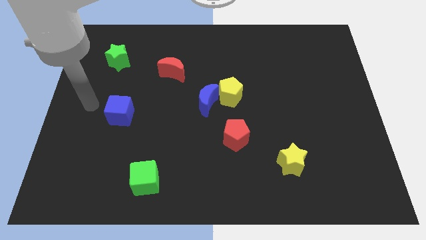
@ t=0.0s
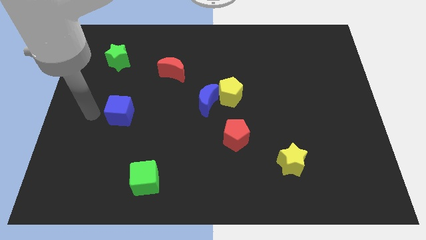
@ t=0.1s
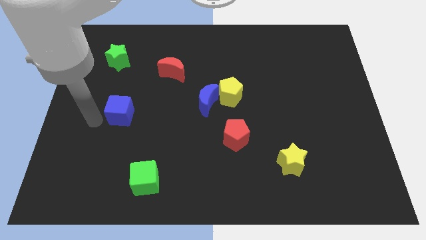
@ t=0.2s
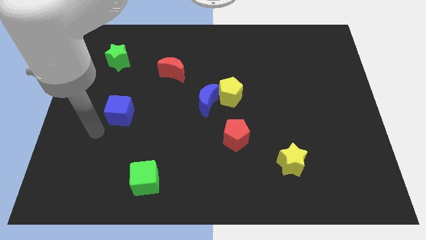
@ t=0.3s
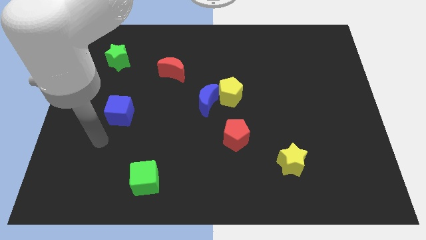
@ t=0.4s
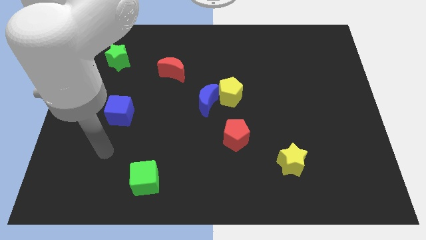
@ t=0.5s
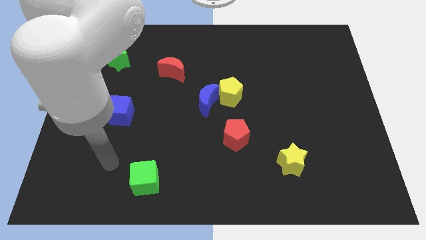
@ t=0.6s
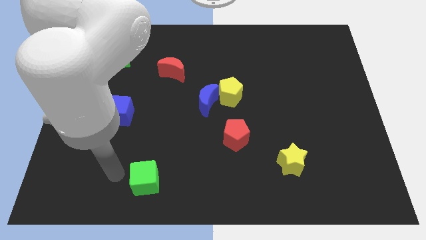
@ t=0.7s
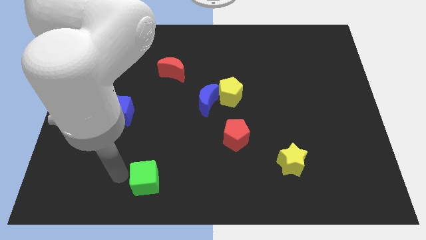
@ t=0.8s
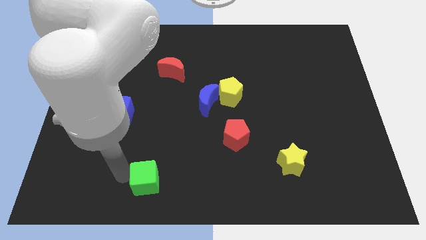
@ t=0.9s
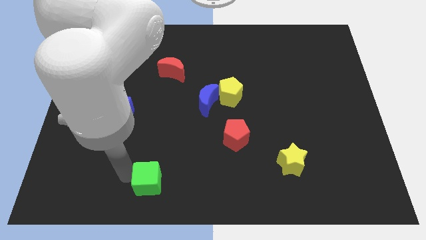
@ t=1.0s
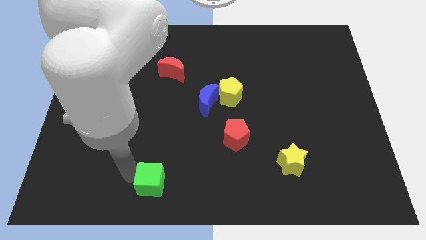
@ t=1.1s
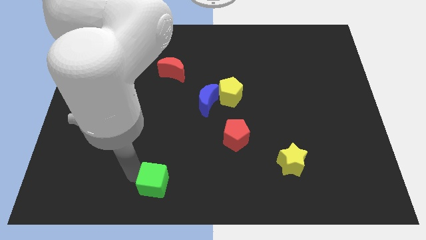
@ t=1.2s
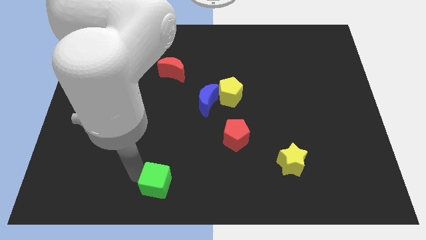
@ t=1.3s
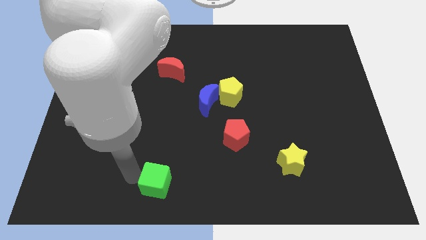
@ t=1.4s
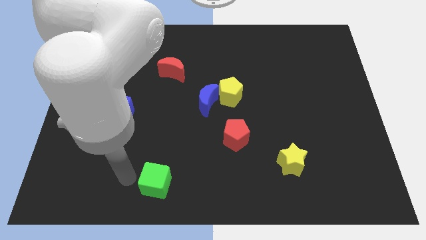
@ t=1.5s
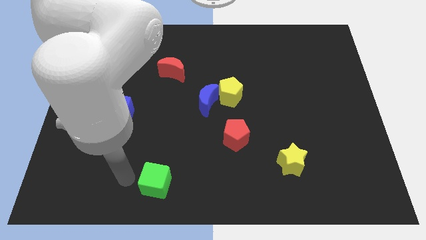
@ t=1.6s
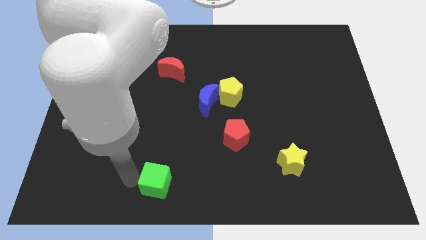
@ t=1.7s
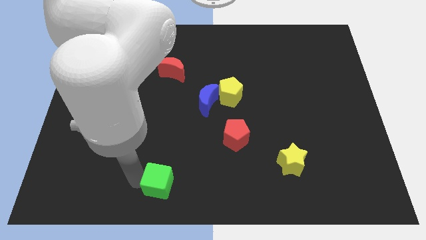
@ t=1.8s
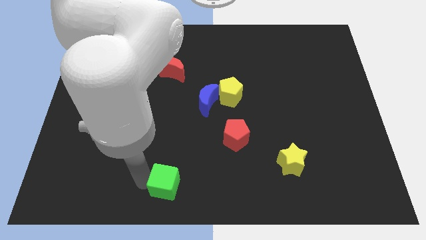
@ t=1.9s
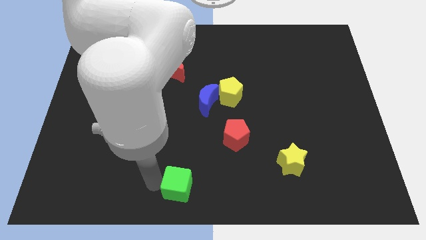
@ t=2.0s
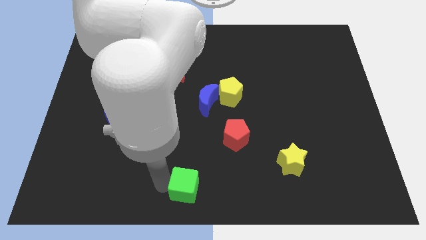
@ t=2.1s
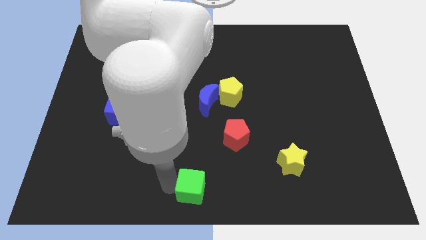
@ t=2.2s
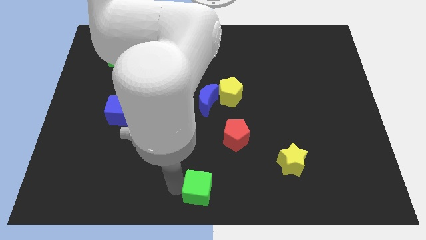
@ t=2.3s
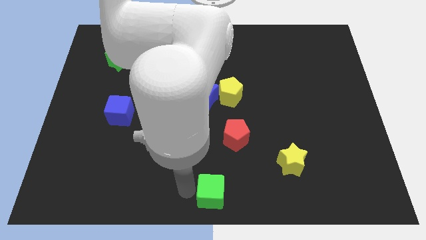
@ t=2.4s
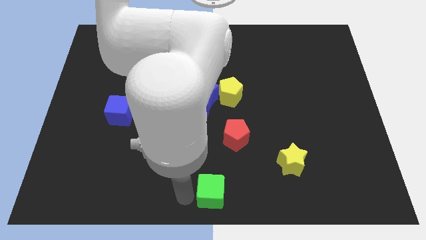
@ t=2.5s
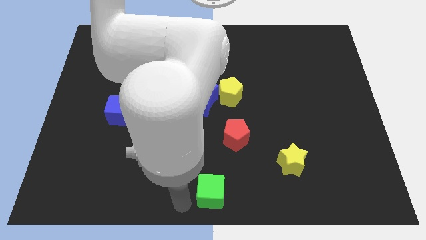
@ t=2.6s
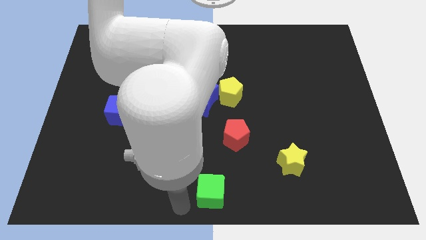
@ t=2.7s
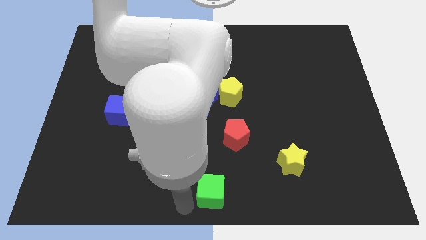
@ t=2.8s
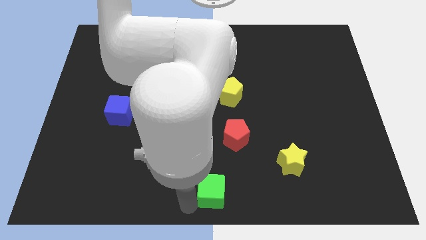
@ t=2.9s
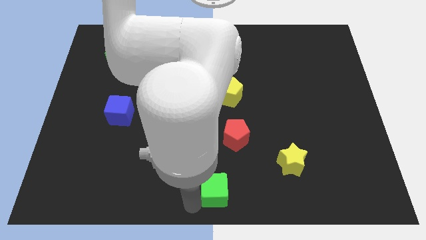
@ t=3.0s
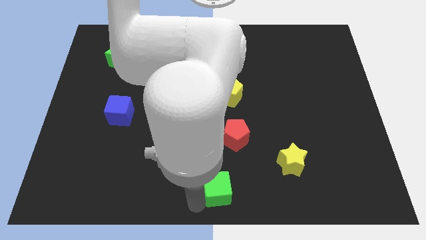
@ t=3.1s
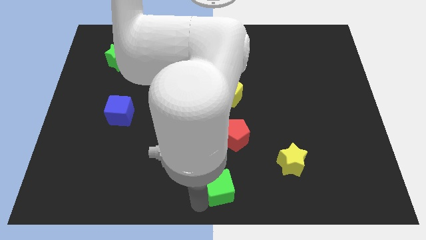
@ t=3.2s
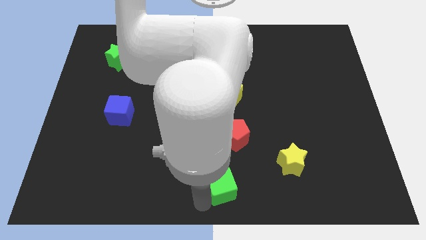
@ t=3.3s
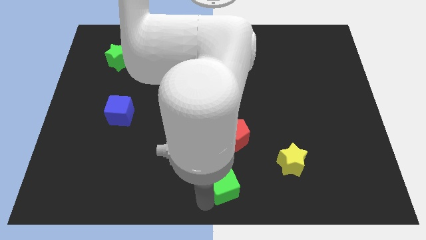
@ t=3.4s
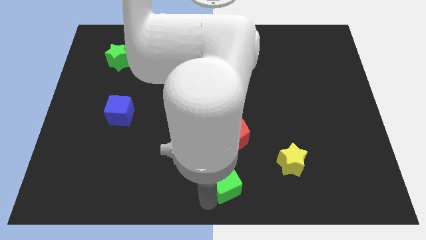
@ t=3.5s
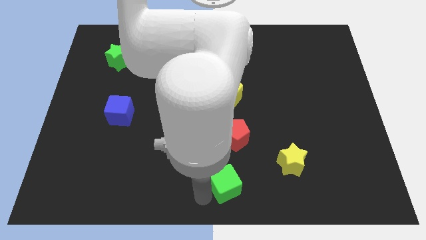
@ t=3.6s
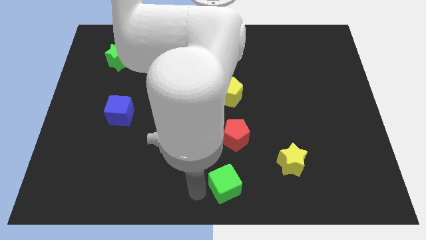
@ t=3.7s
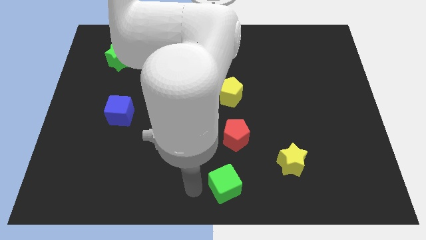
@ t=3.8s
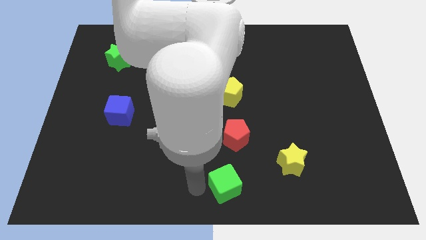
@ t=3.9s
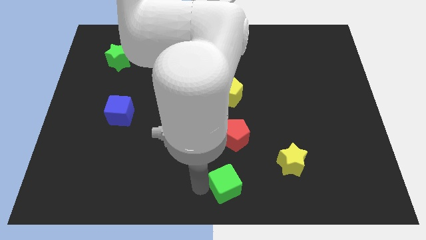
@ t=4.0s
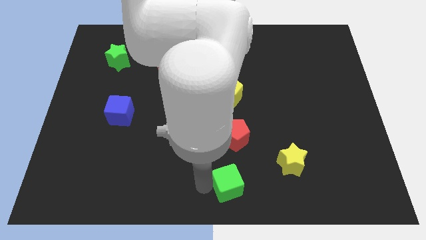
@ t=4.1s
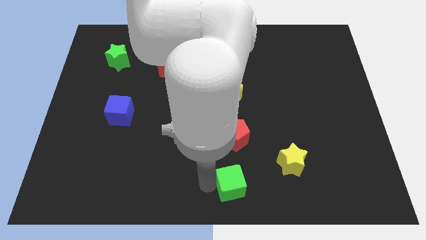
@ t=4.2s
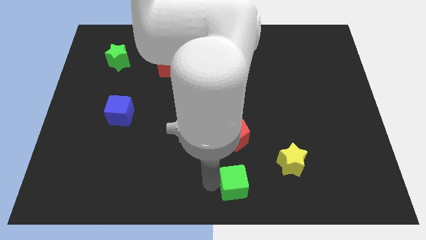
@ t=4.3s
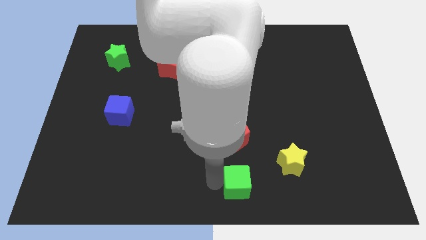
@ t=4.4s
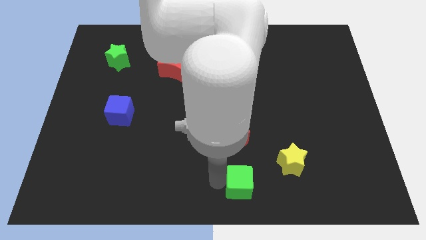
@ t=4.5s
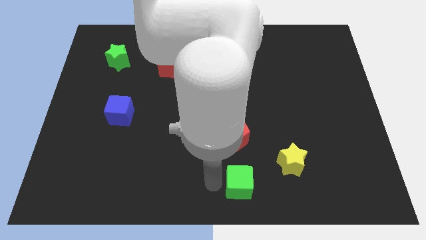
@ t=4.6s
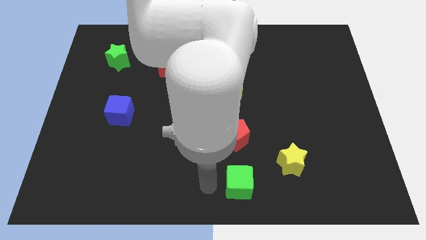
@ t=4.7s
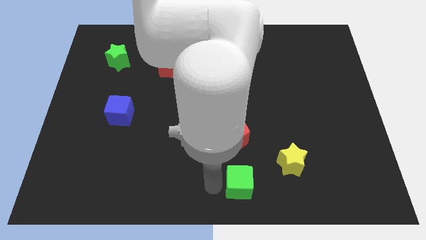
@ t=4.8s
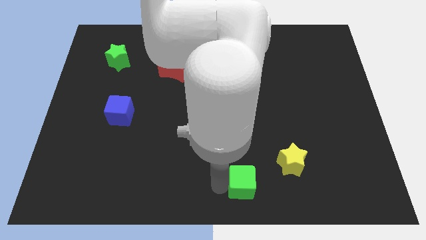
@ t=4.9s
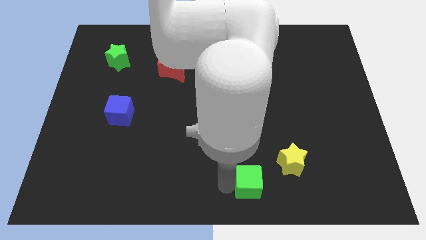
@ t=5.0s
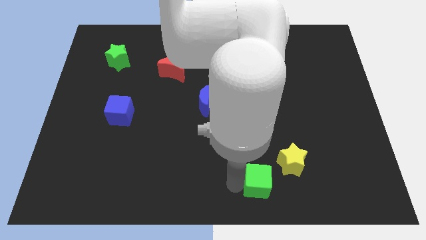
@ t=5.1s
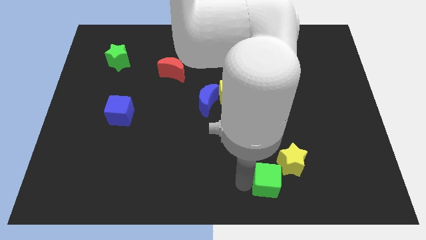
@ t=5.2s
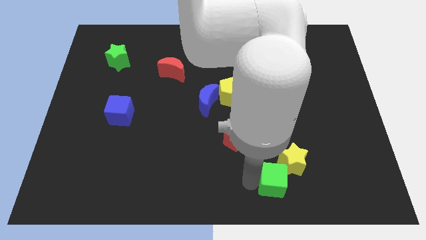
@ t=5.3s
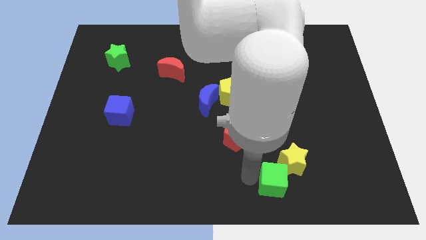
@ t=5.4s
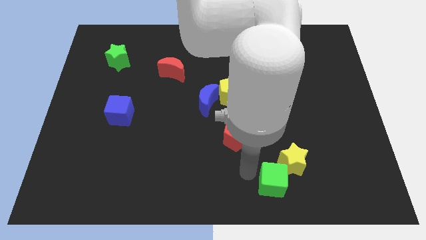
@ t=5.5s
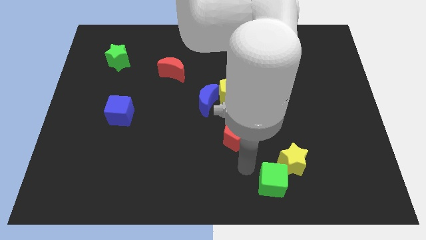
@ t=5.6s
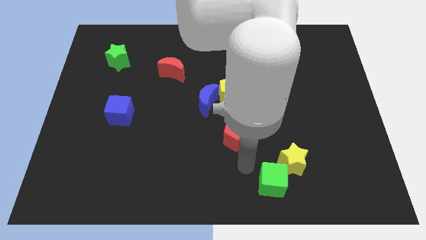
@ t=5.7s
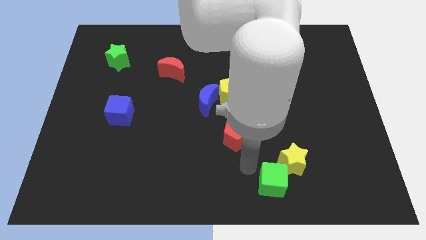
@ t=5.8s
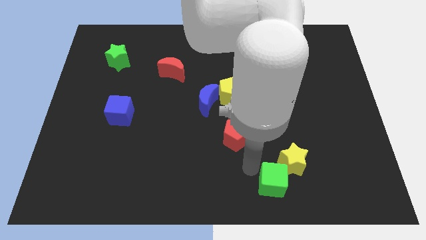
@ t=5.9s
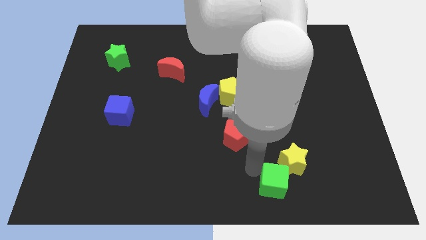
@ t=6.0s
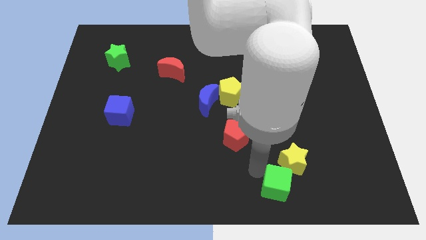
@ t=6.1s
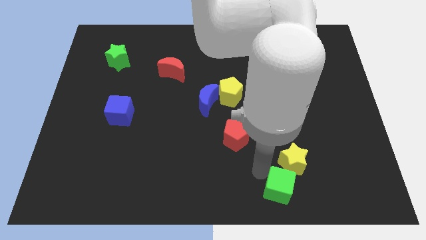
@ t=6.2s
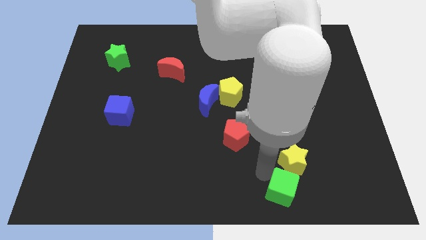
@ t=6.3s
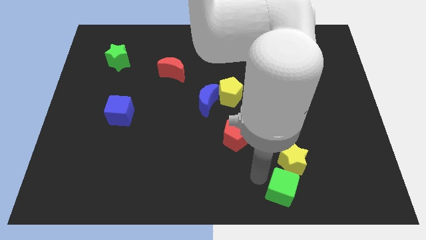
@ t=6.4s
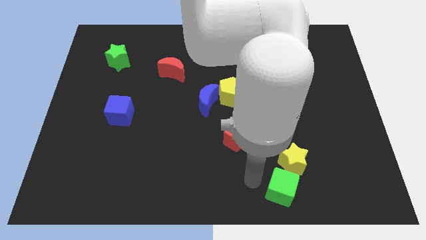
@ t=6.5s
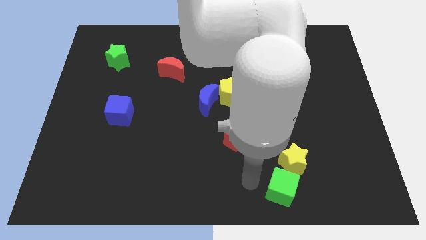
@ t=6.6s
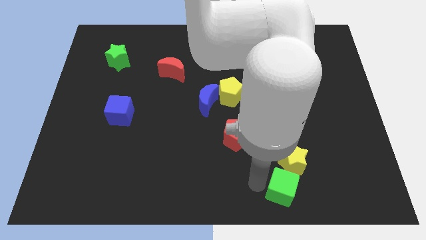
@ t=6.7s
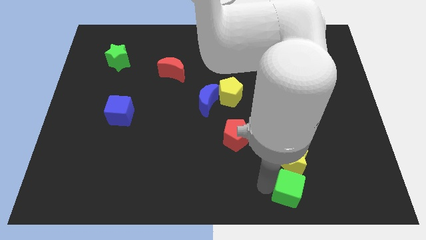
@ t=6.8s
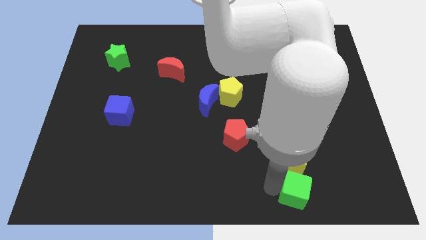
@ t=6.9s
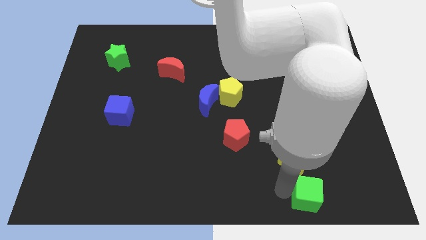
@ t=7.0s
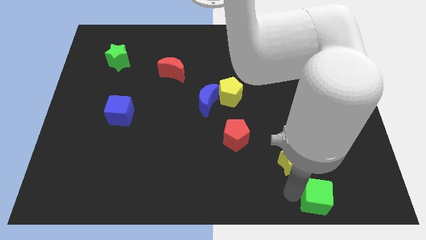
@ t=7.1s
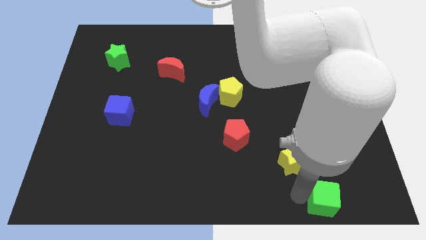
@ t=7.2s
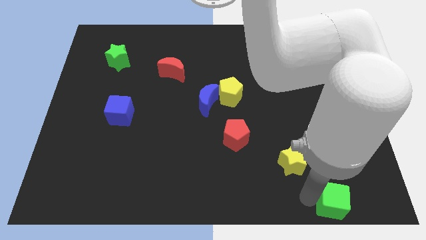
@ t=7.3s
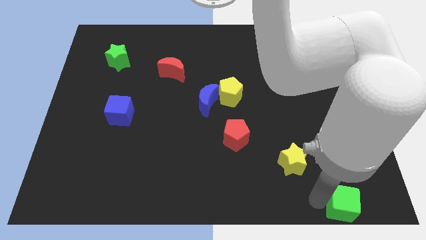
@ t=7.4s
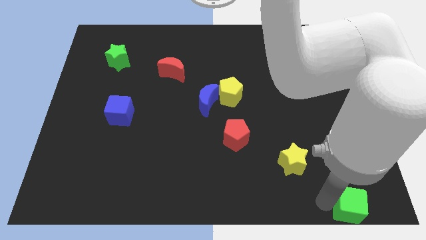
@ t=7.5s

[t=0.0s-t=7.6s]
slide the green cube to the bottom right corner
